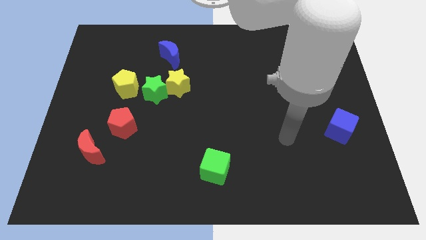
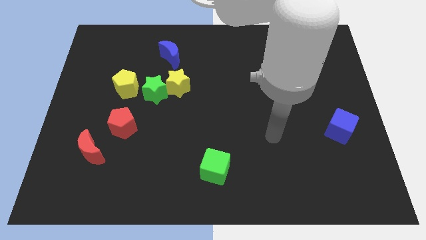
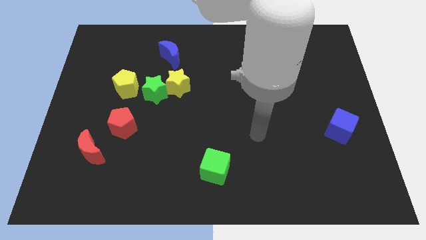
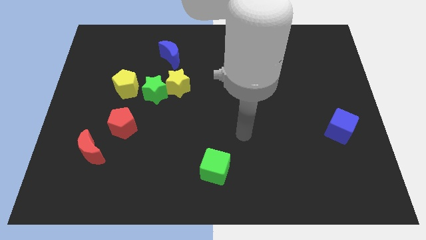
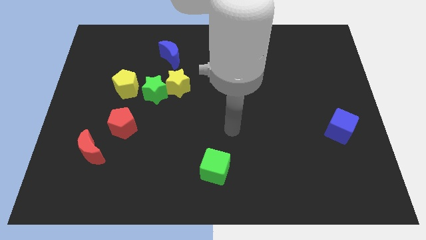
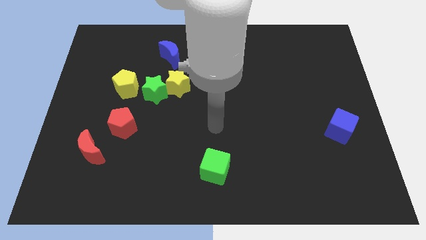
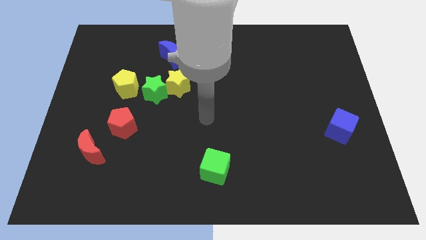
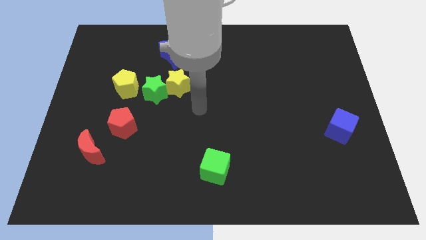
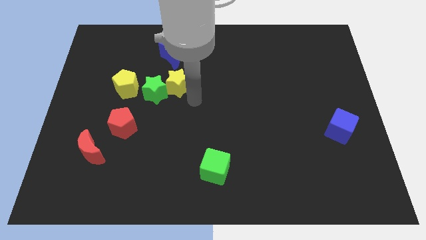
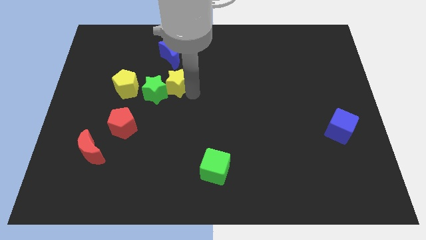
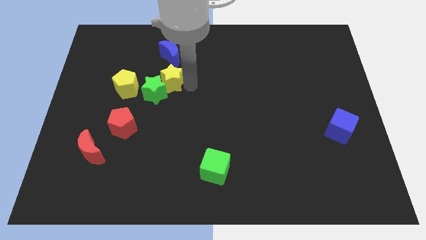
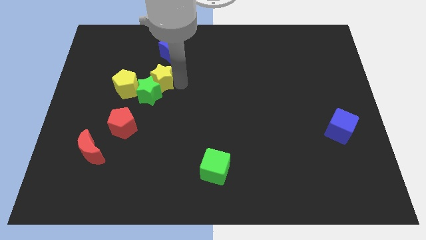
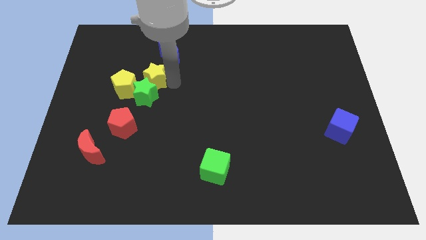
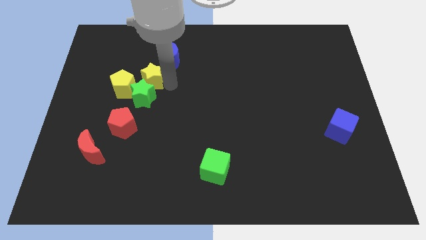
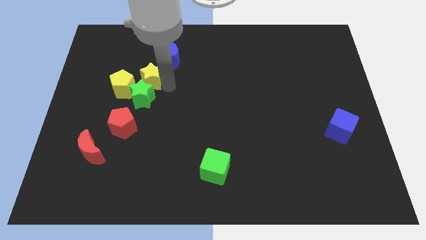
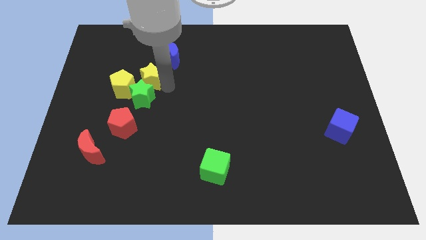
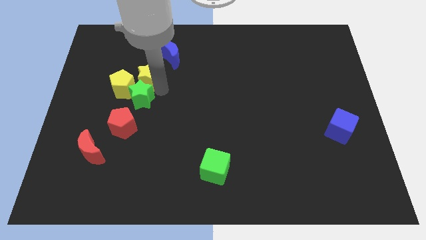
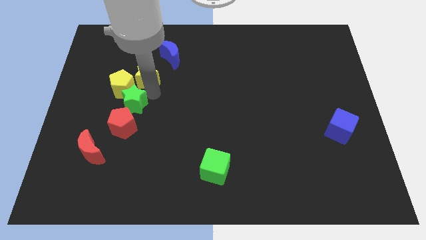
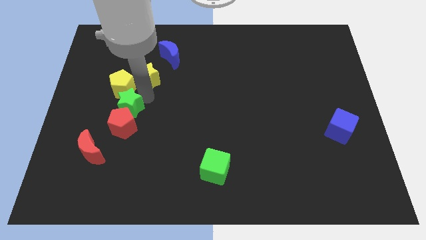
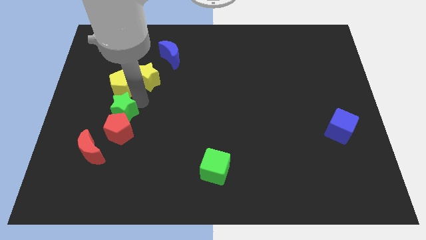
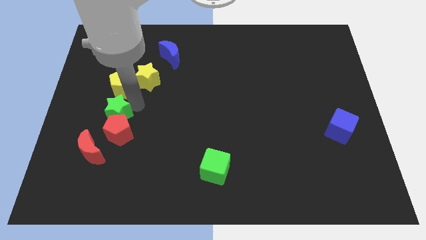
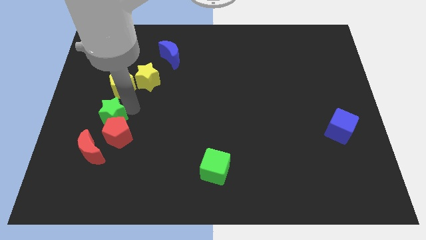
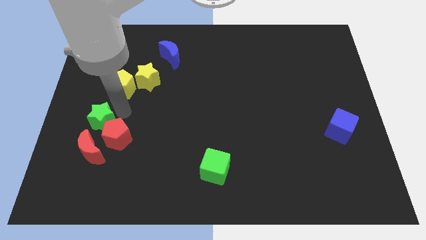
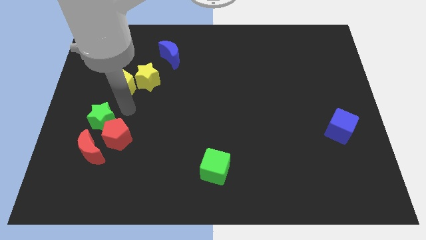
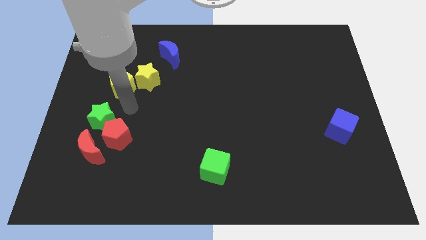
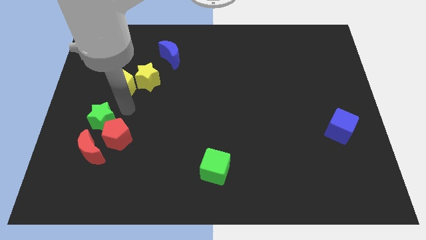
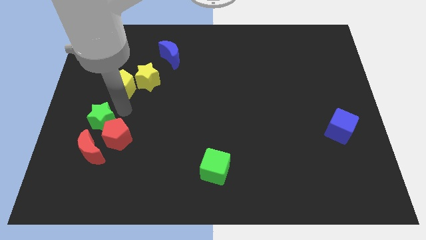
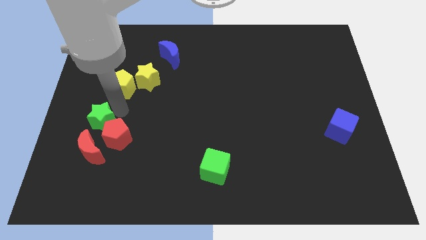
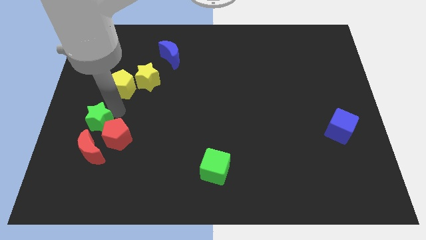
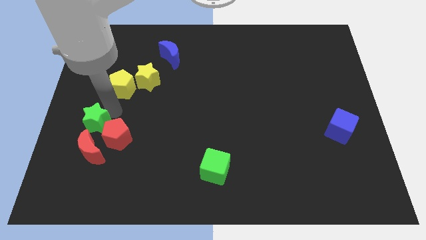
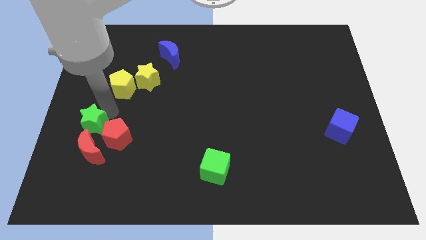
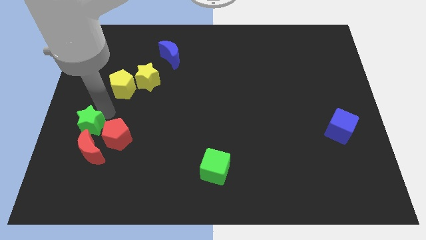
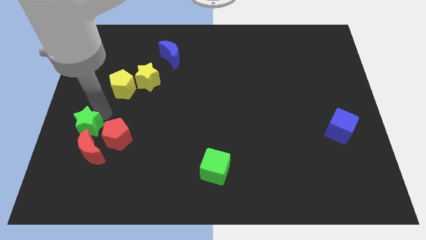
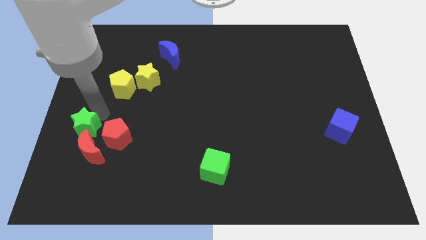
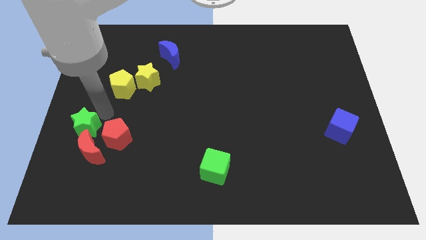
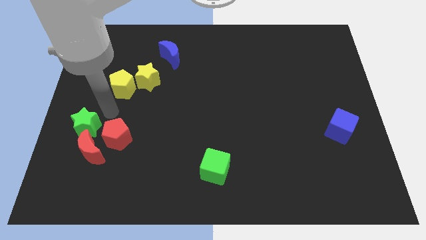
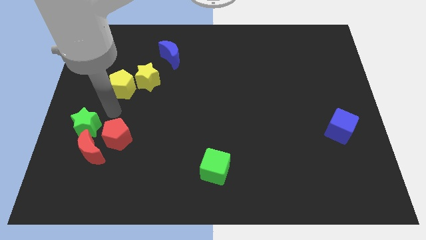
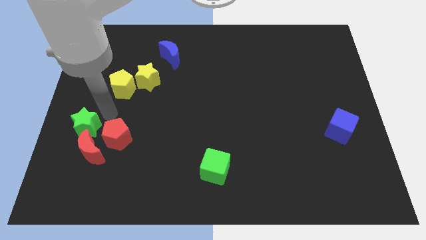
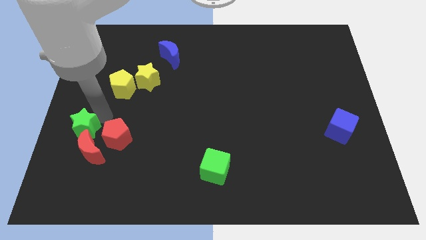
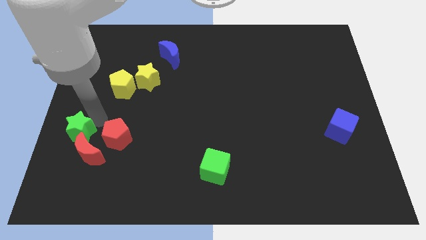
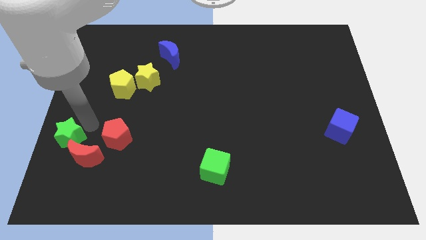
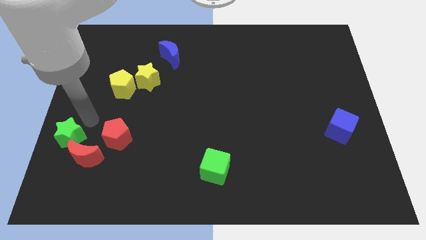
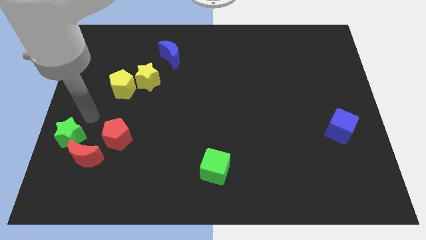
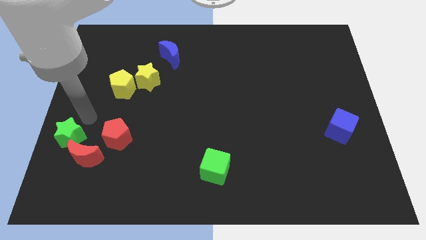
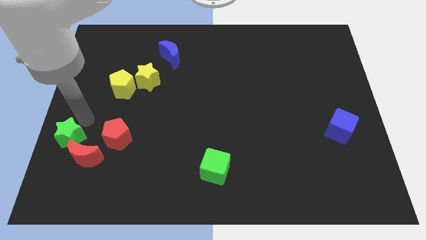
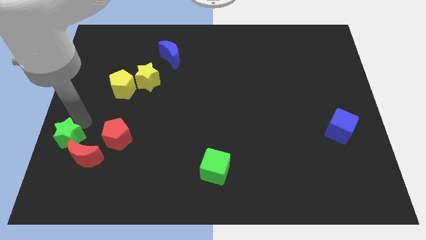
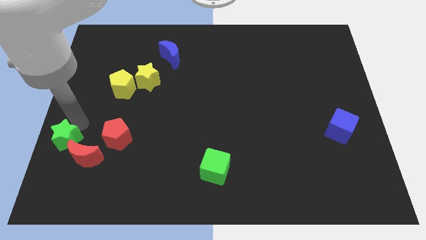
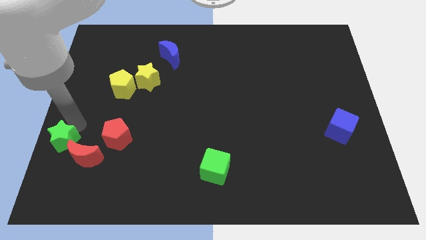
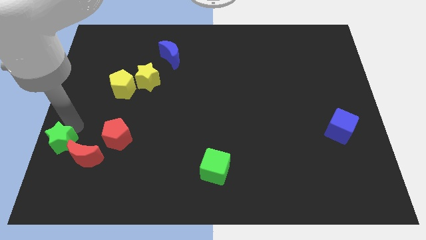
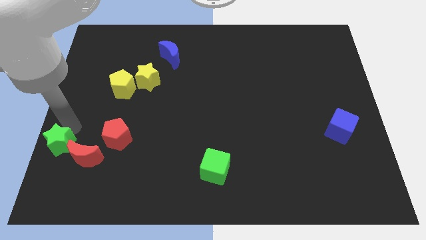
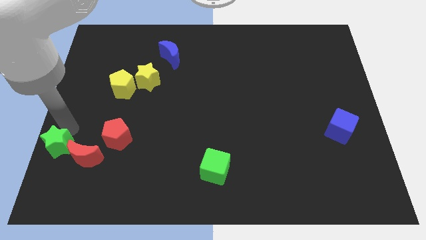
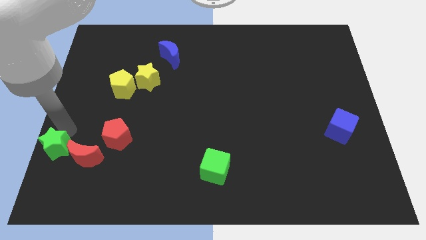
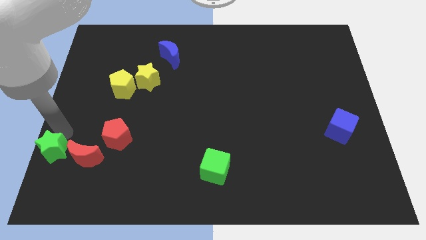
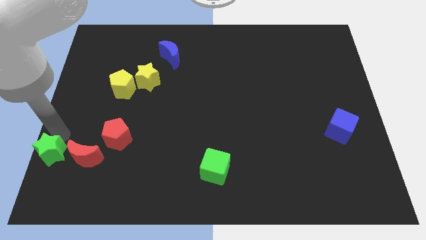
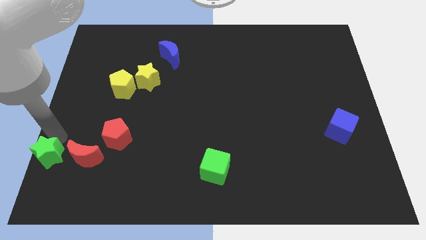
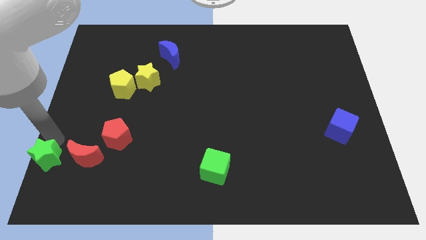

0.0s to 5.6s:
slide the green star to the bottom left of the board

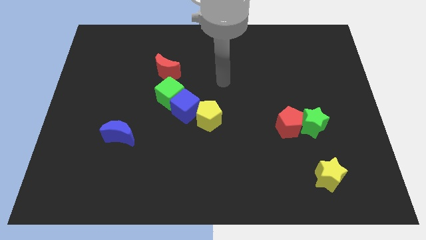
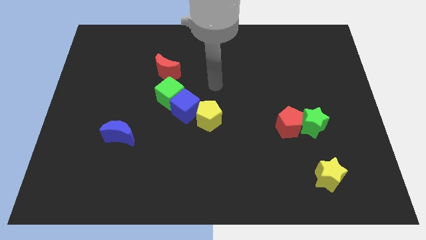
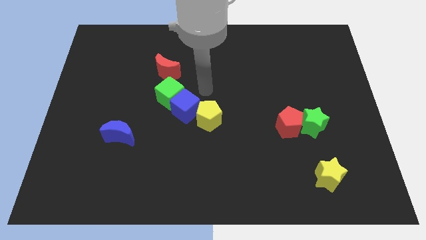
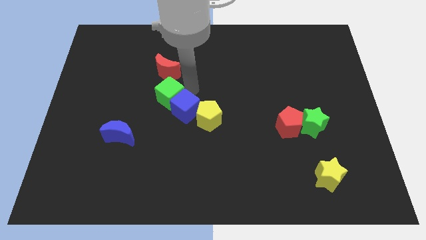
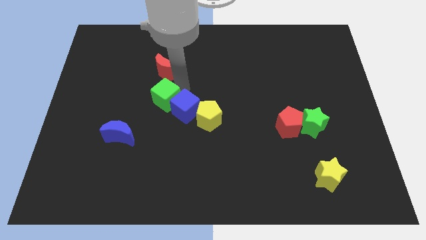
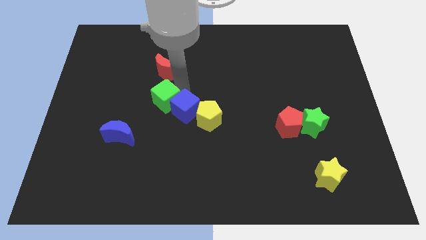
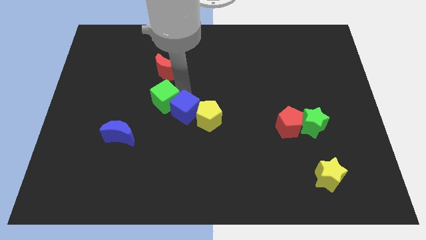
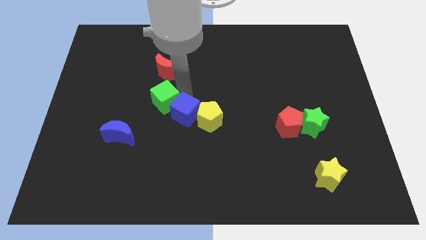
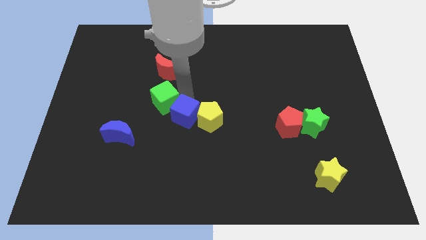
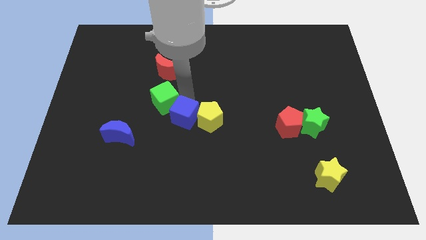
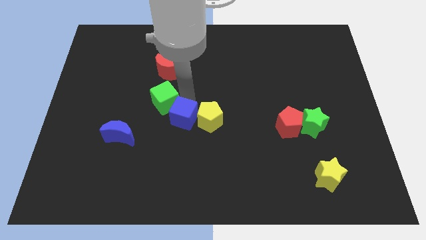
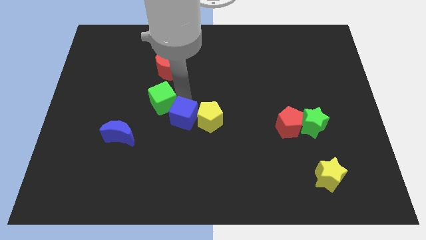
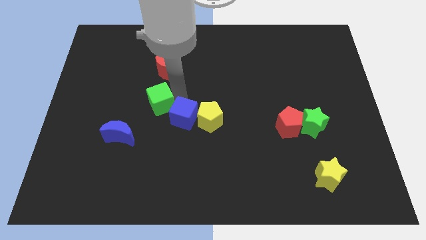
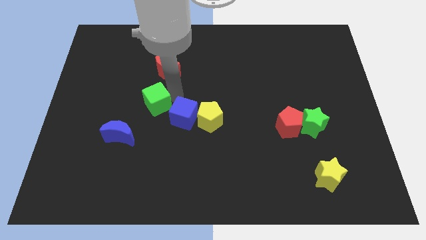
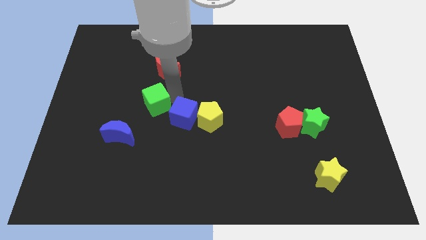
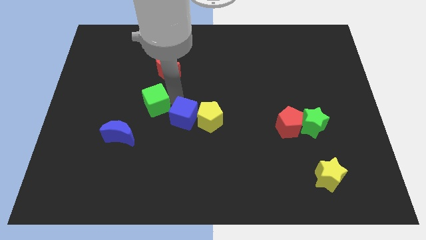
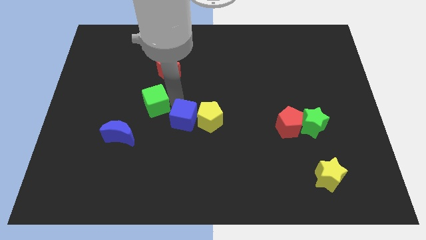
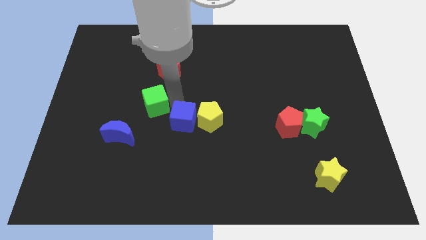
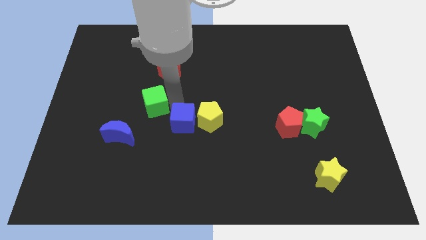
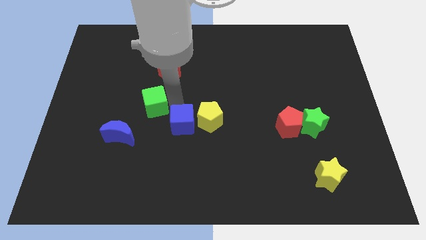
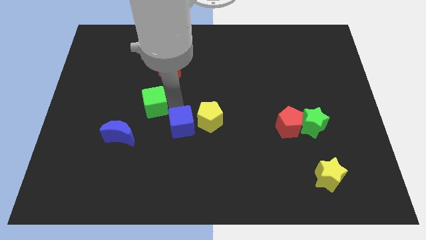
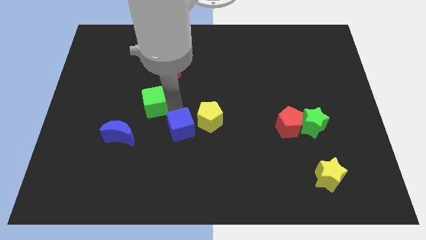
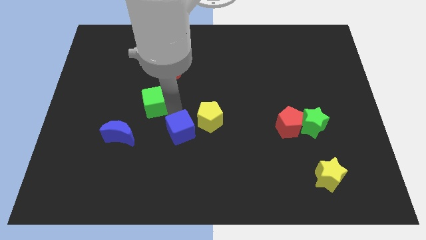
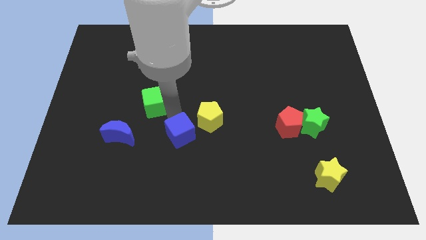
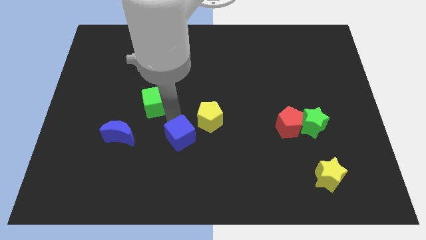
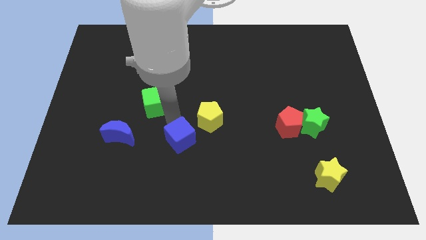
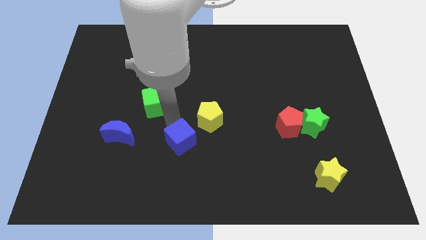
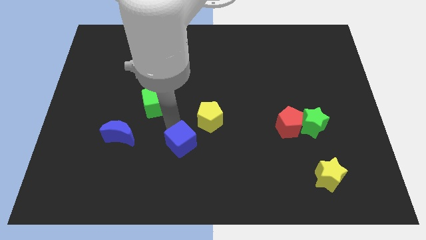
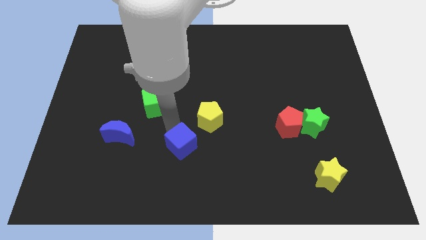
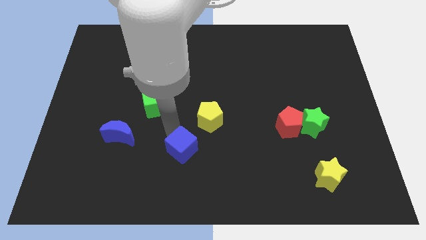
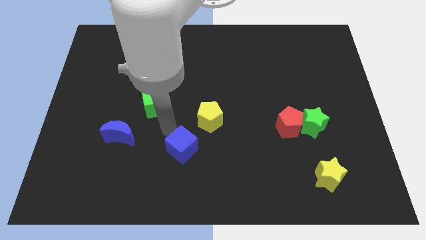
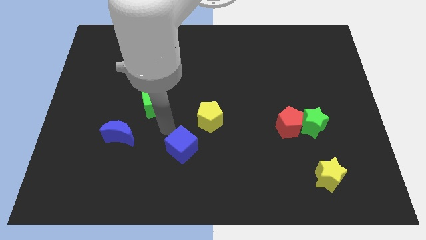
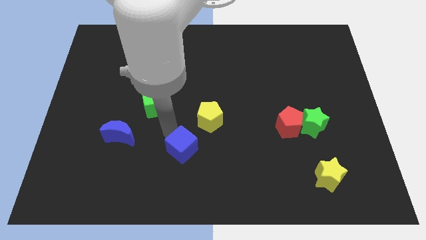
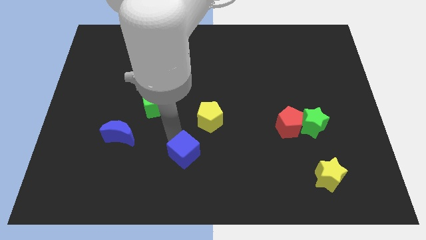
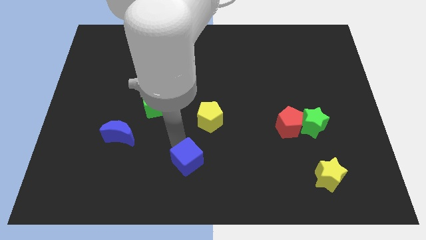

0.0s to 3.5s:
slide the blue cube to the bottom side
